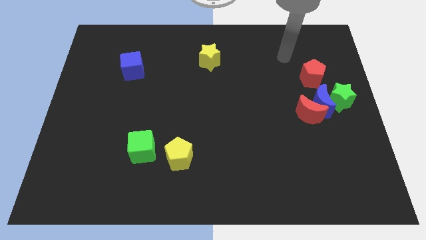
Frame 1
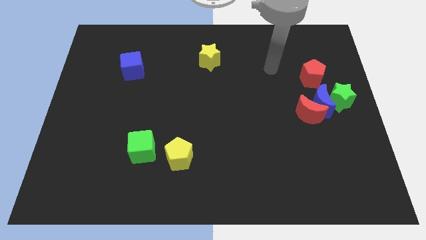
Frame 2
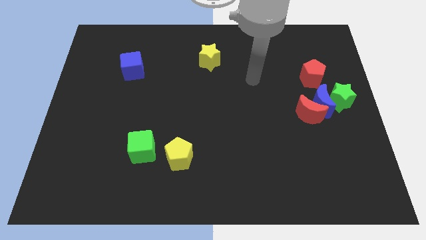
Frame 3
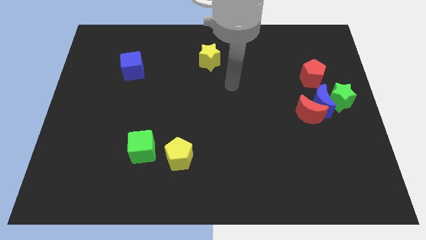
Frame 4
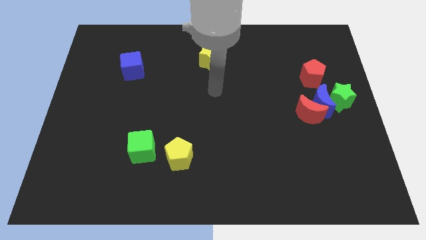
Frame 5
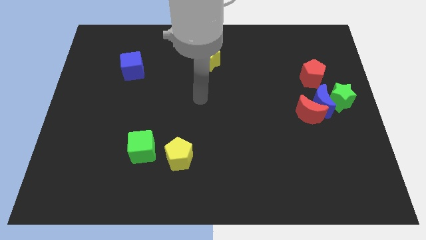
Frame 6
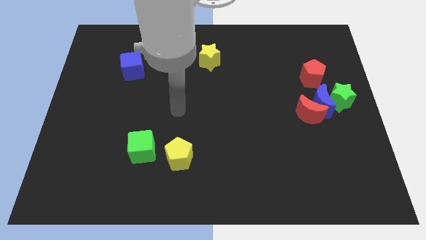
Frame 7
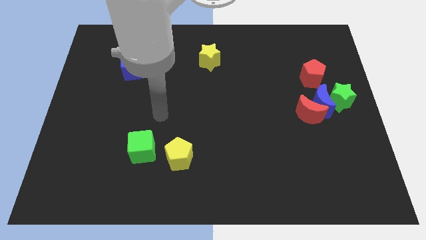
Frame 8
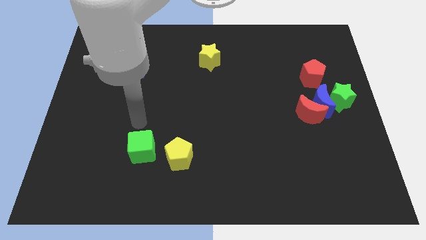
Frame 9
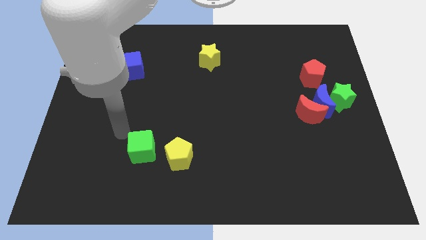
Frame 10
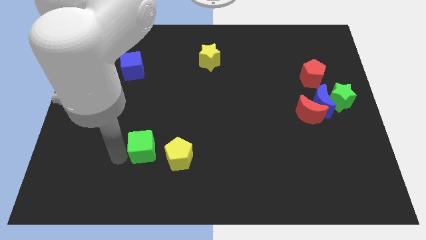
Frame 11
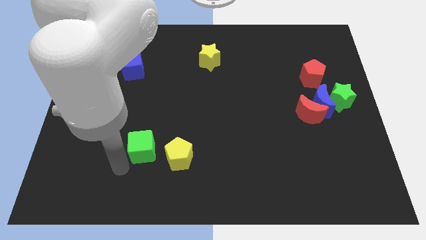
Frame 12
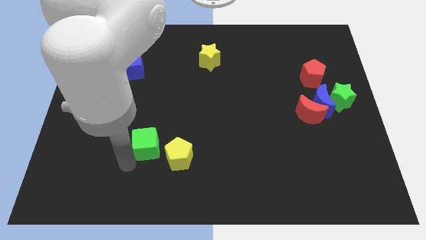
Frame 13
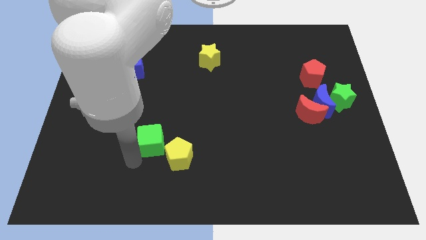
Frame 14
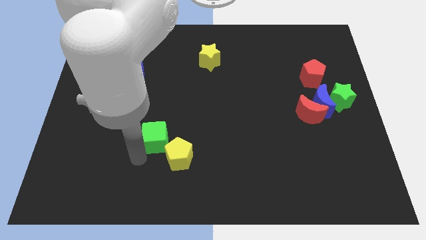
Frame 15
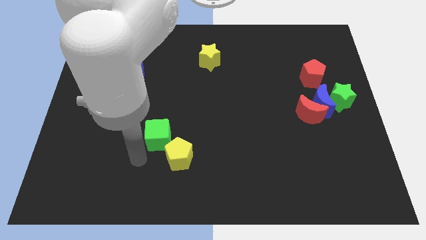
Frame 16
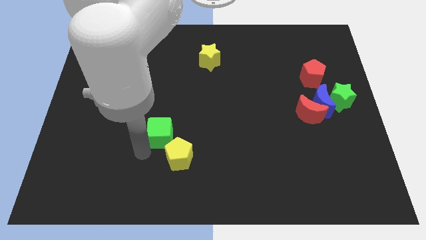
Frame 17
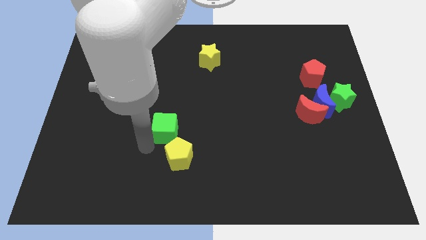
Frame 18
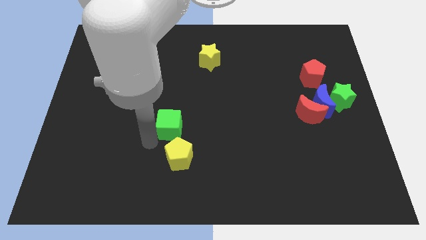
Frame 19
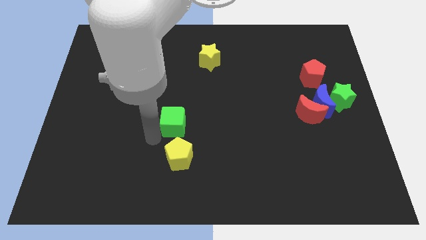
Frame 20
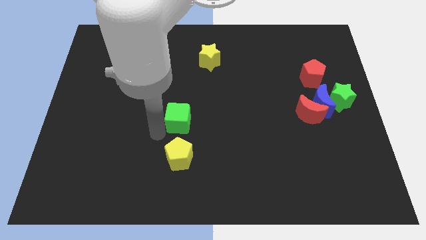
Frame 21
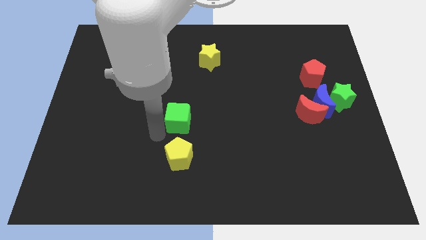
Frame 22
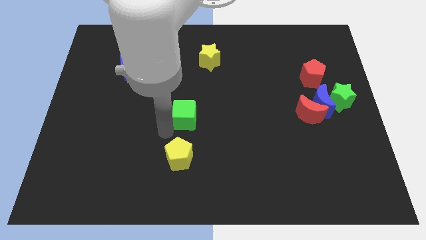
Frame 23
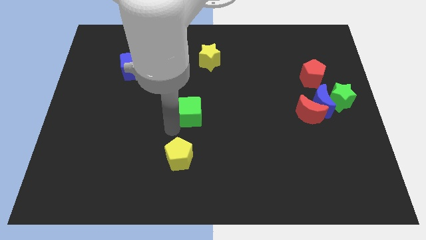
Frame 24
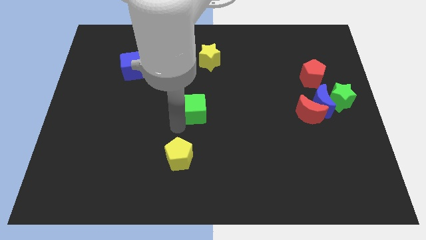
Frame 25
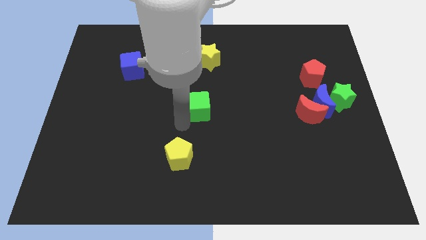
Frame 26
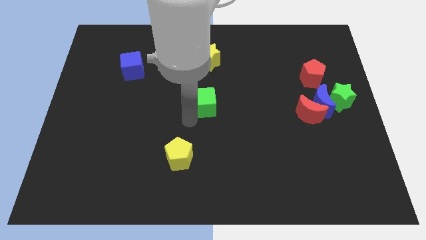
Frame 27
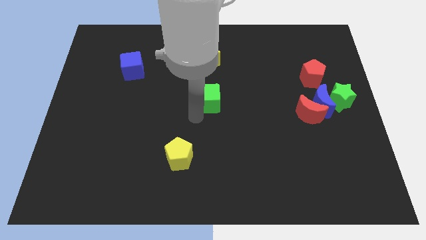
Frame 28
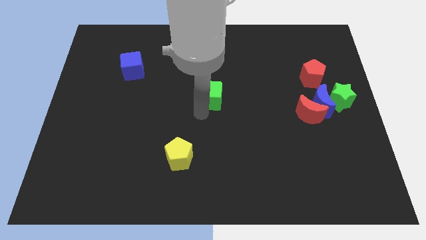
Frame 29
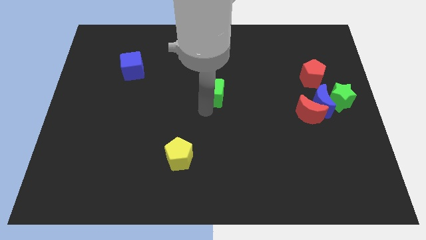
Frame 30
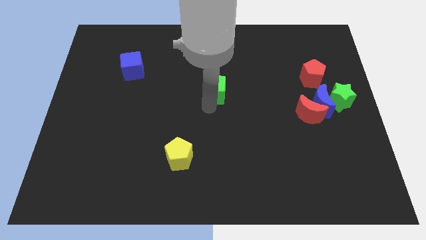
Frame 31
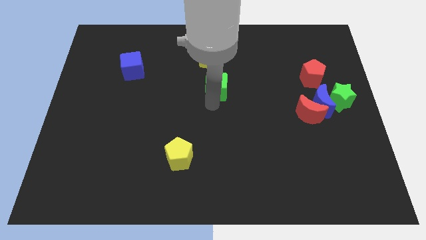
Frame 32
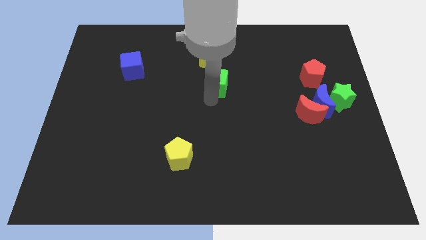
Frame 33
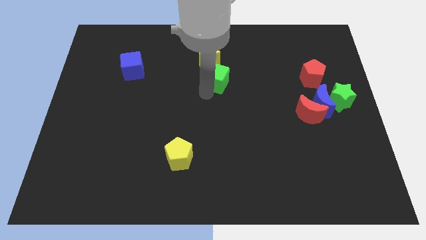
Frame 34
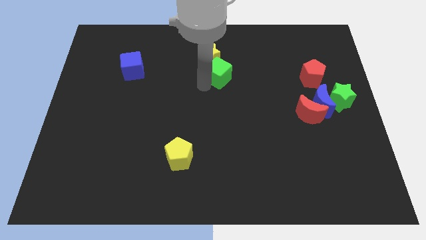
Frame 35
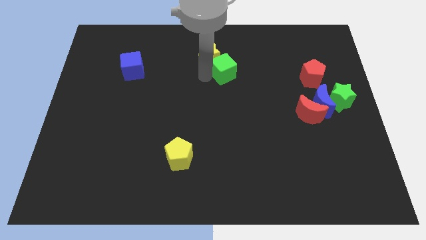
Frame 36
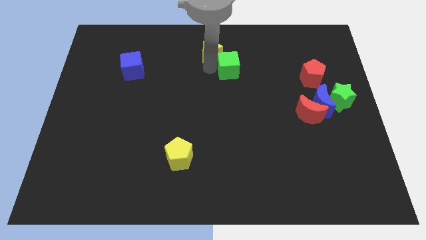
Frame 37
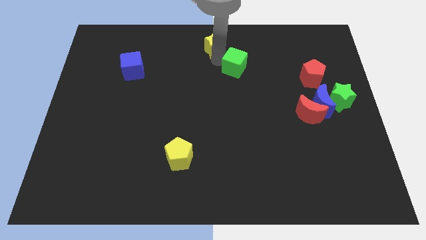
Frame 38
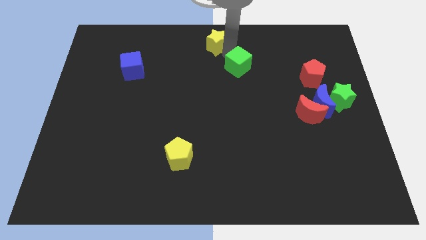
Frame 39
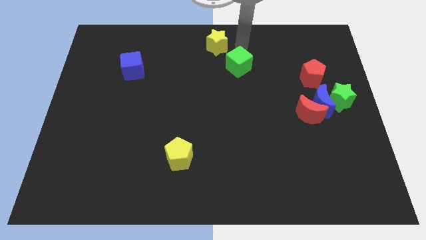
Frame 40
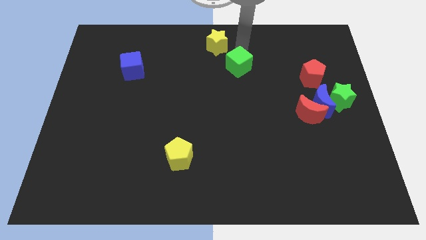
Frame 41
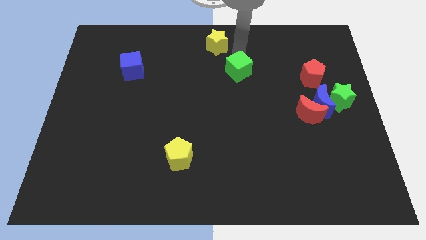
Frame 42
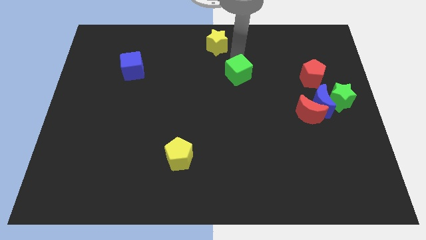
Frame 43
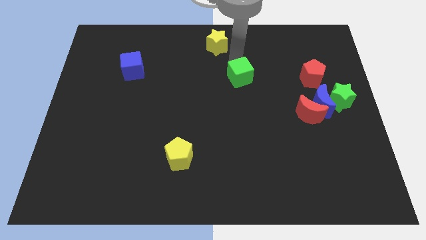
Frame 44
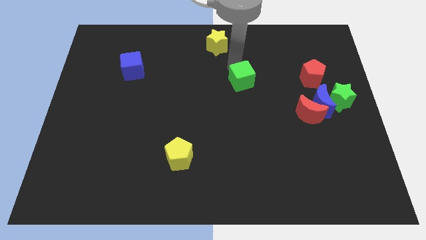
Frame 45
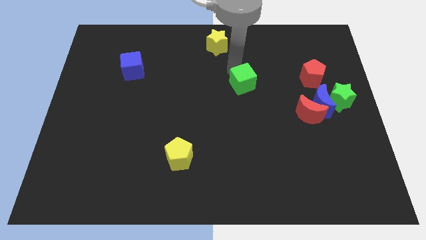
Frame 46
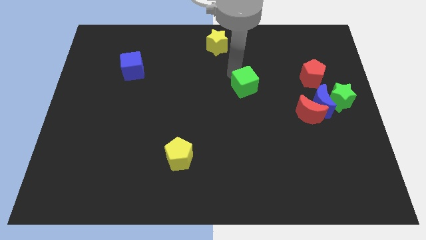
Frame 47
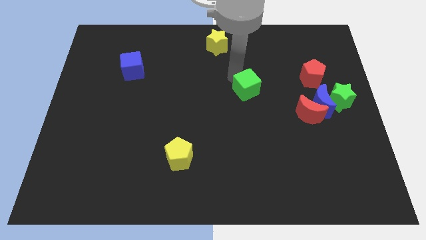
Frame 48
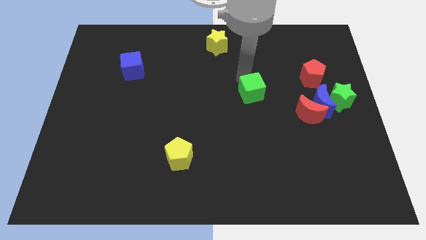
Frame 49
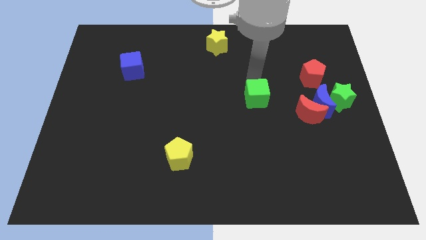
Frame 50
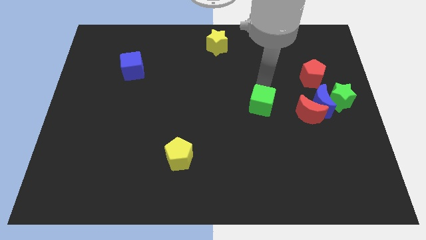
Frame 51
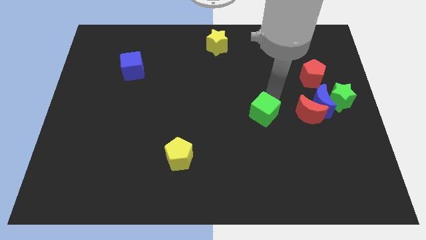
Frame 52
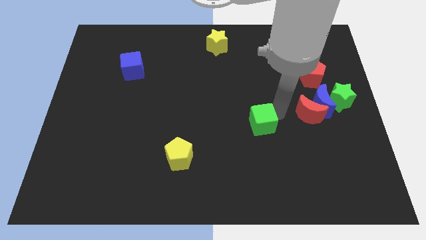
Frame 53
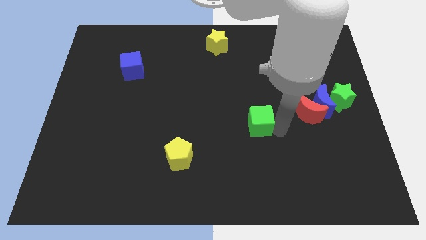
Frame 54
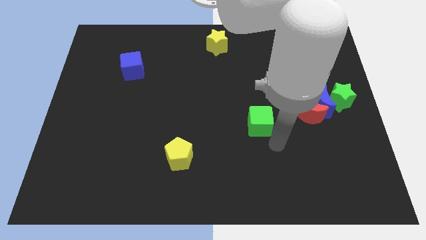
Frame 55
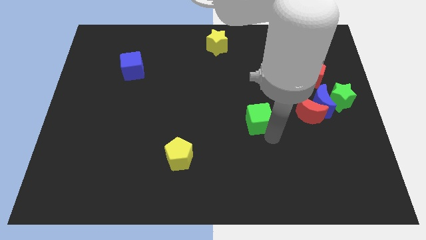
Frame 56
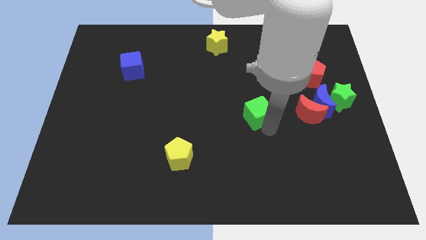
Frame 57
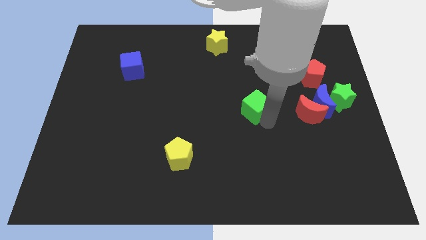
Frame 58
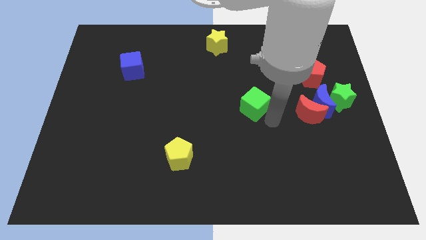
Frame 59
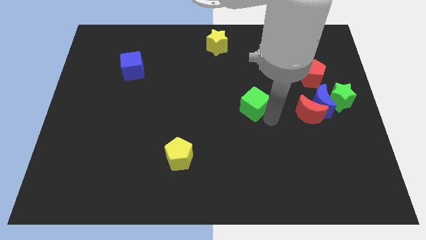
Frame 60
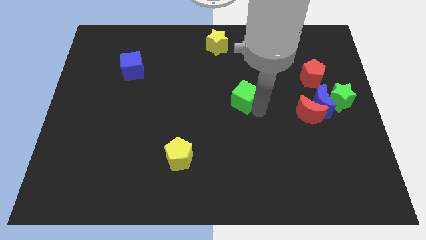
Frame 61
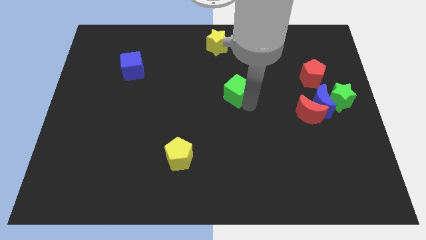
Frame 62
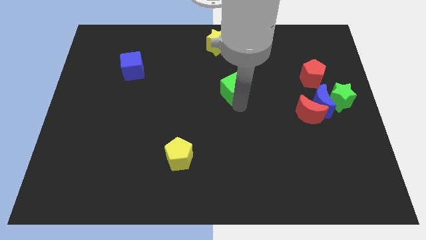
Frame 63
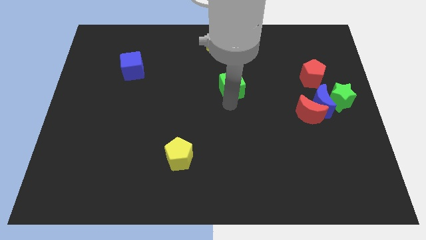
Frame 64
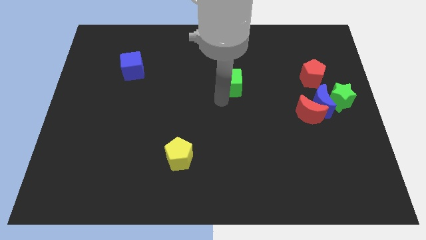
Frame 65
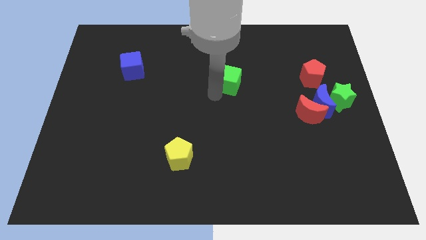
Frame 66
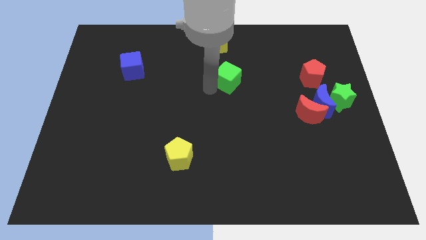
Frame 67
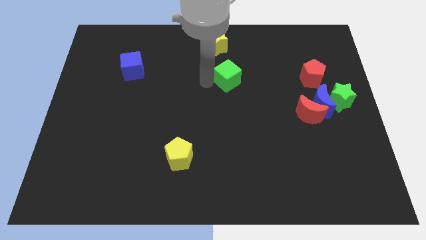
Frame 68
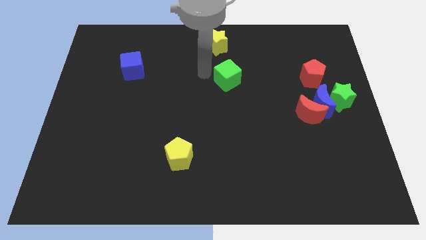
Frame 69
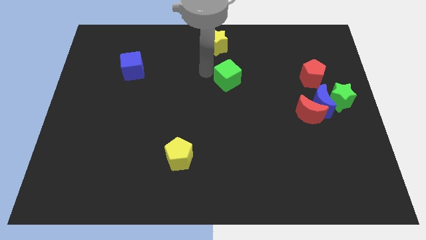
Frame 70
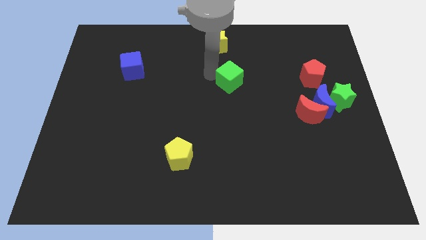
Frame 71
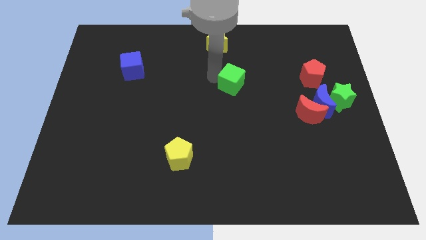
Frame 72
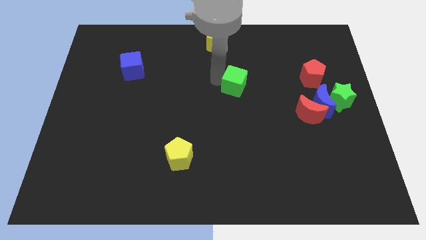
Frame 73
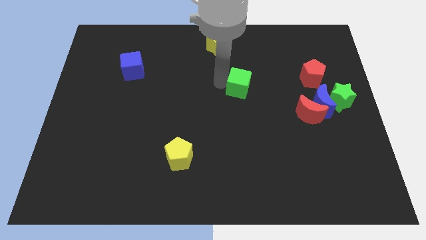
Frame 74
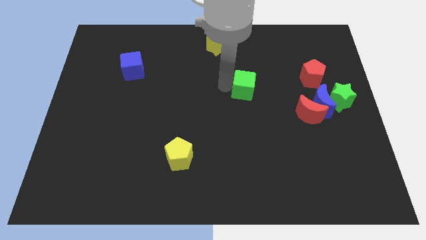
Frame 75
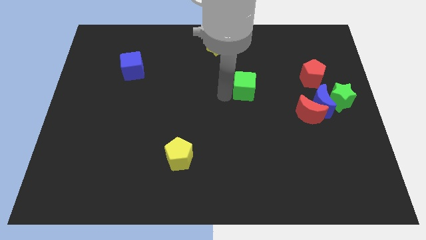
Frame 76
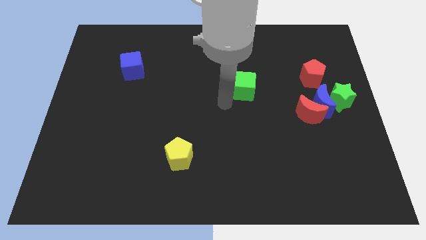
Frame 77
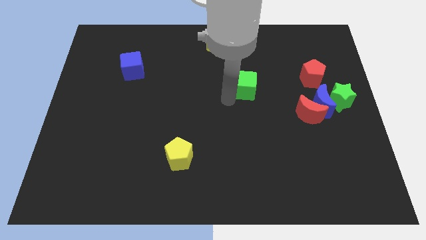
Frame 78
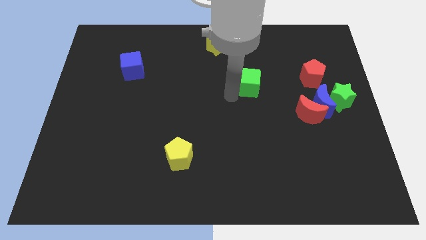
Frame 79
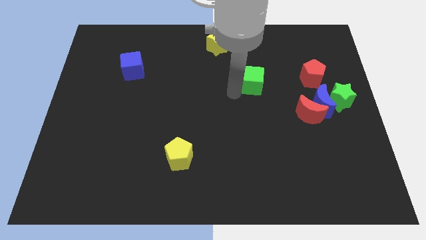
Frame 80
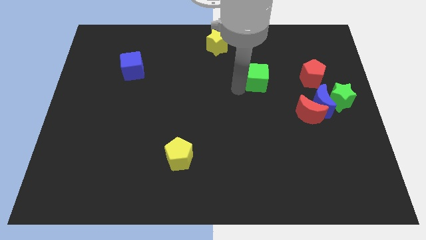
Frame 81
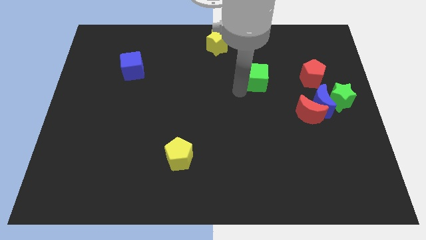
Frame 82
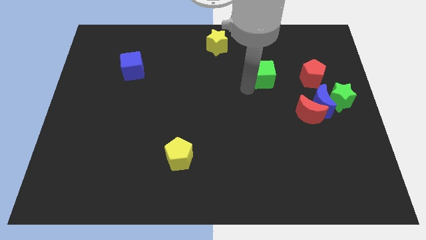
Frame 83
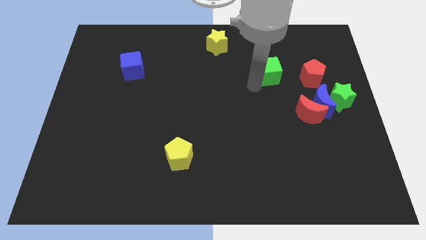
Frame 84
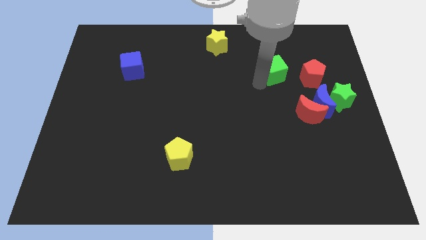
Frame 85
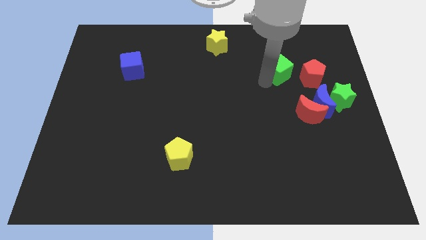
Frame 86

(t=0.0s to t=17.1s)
put the green cube to the top left of the red pentagon
